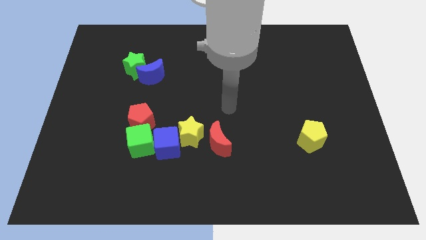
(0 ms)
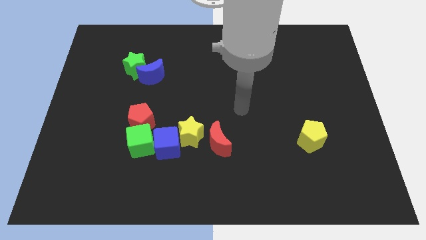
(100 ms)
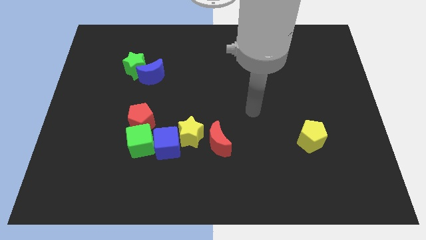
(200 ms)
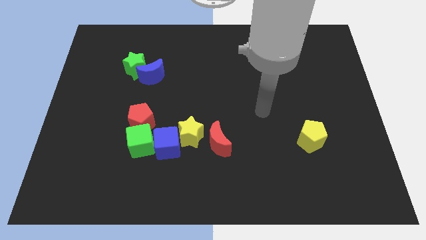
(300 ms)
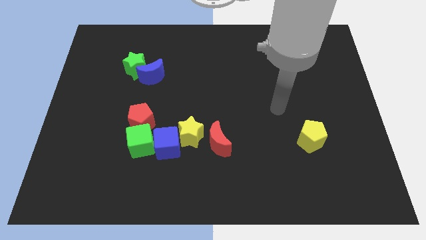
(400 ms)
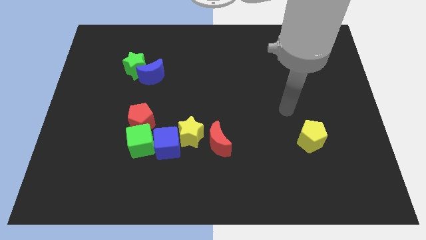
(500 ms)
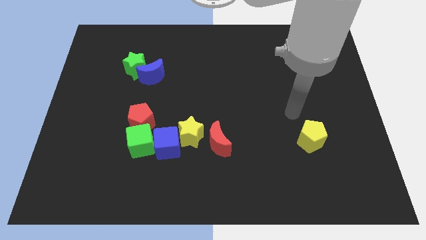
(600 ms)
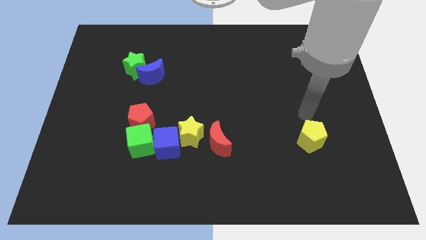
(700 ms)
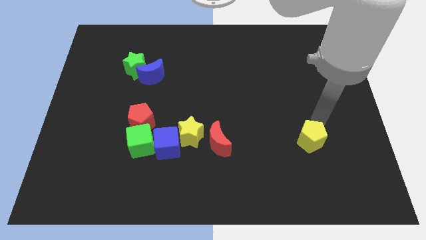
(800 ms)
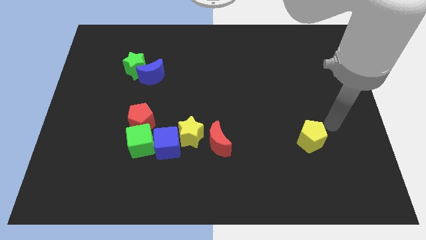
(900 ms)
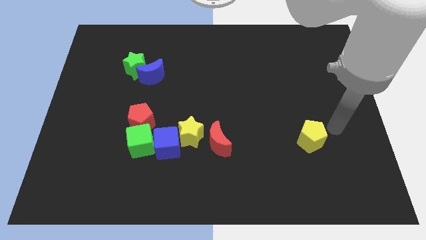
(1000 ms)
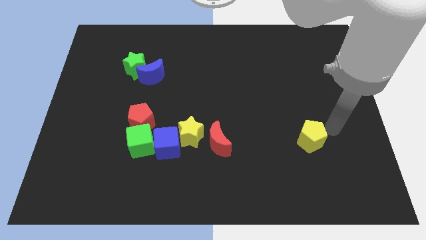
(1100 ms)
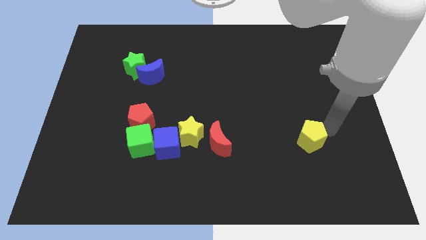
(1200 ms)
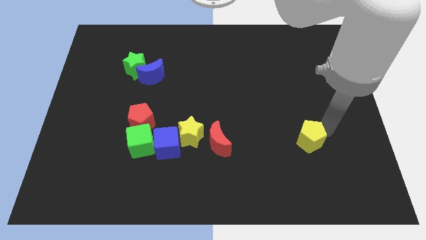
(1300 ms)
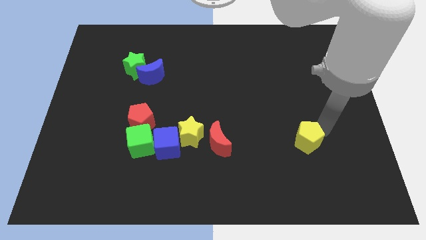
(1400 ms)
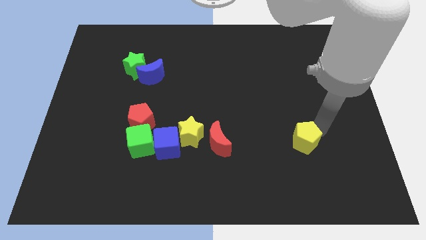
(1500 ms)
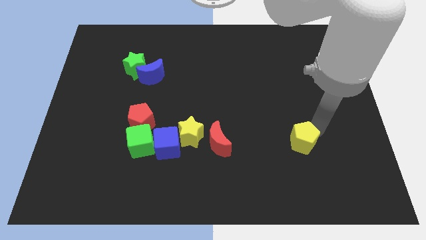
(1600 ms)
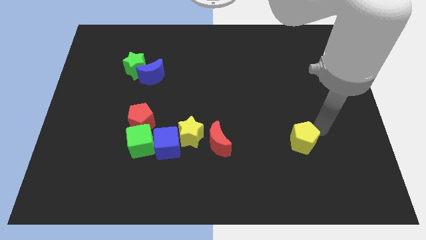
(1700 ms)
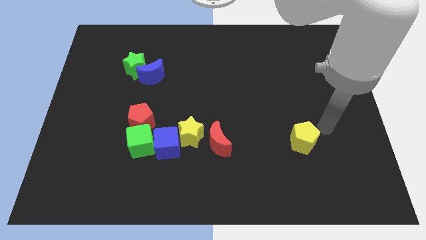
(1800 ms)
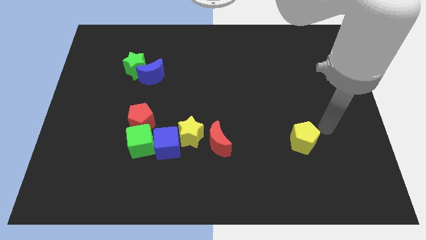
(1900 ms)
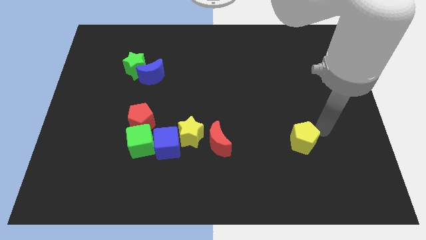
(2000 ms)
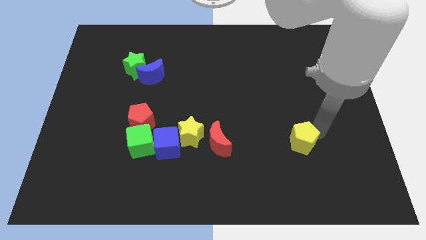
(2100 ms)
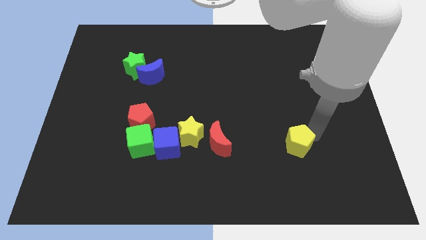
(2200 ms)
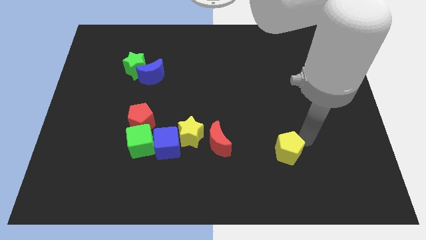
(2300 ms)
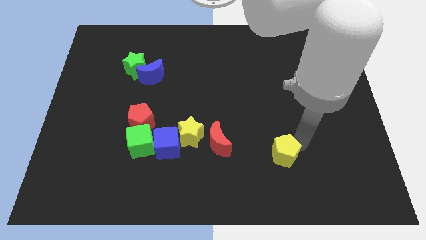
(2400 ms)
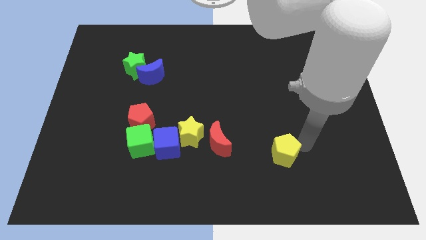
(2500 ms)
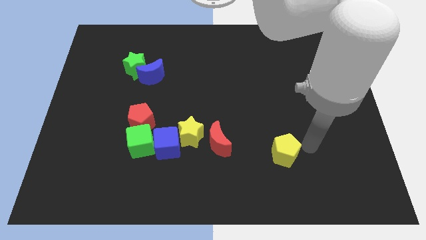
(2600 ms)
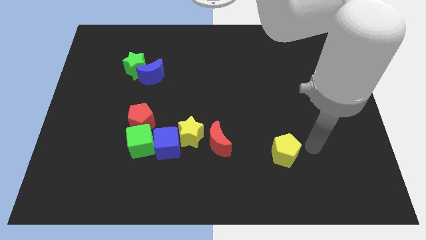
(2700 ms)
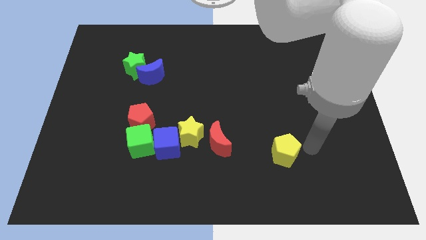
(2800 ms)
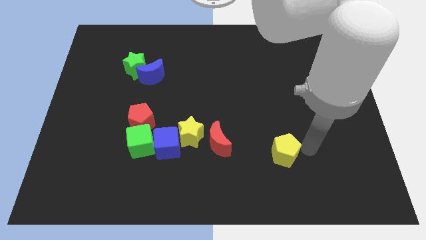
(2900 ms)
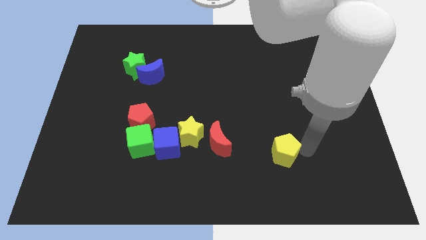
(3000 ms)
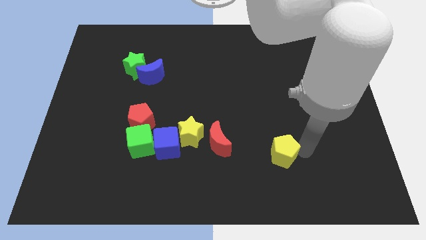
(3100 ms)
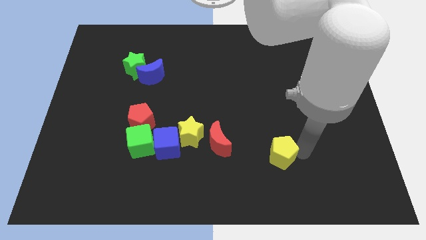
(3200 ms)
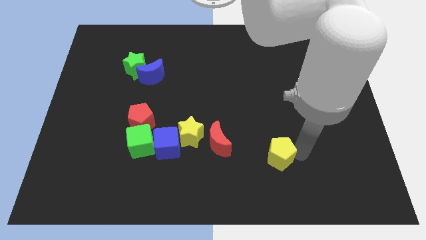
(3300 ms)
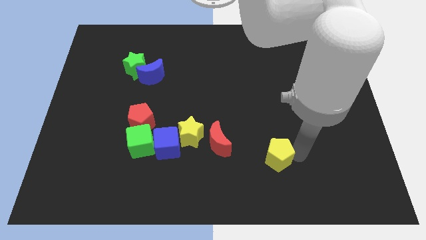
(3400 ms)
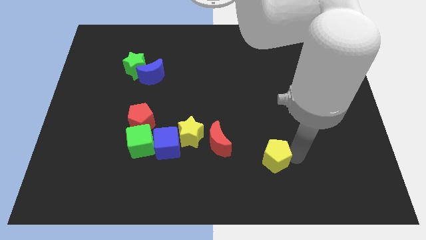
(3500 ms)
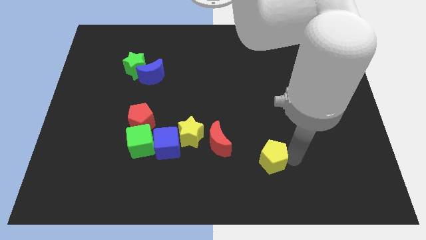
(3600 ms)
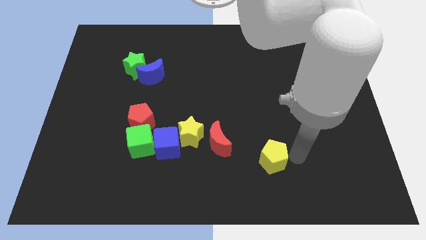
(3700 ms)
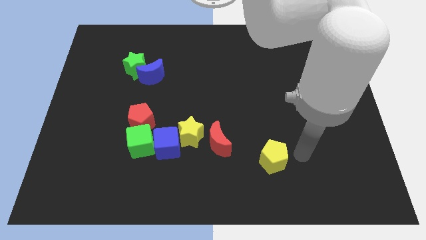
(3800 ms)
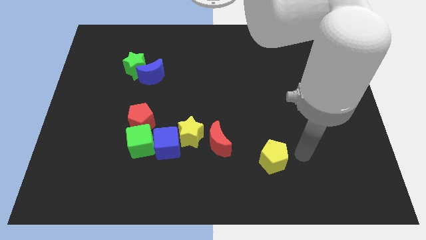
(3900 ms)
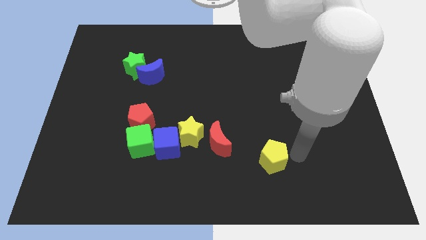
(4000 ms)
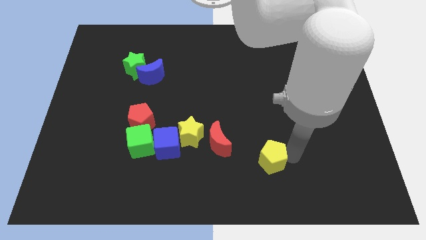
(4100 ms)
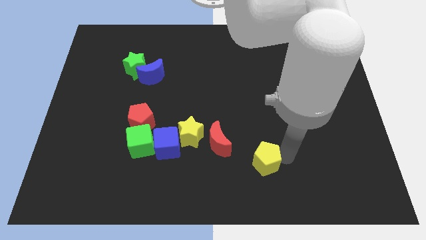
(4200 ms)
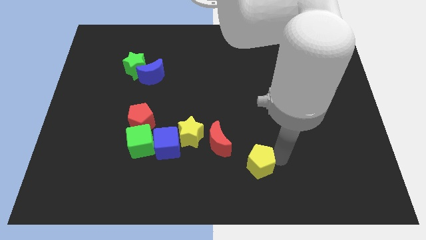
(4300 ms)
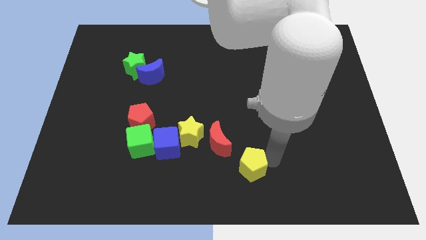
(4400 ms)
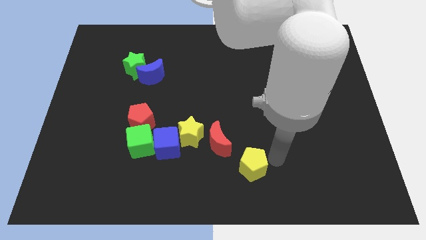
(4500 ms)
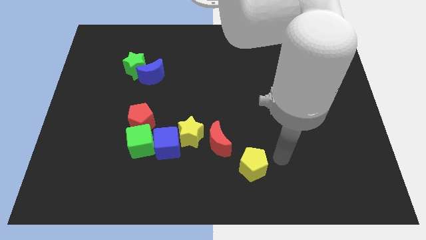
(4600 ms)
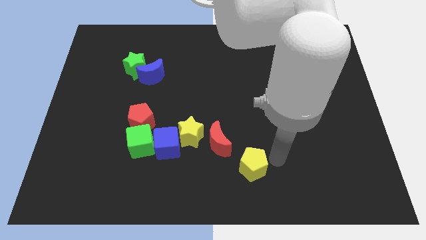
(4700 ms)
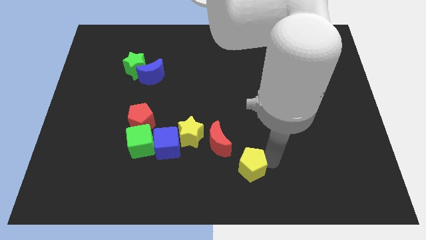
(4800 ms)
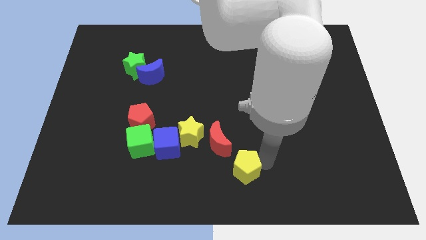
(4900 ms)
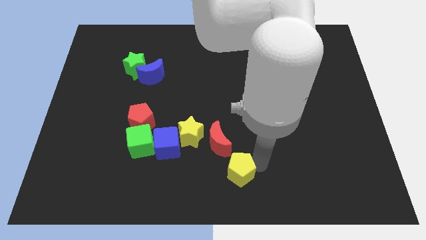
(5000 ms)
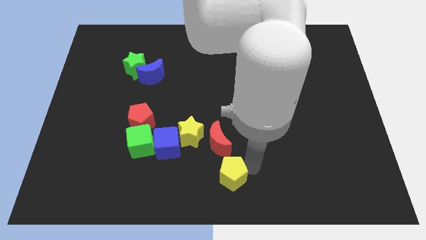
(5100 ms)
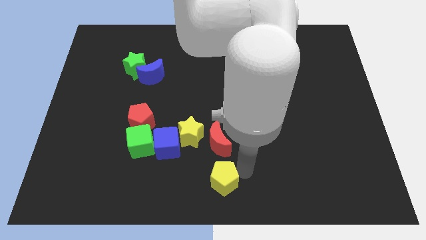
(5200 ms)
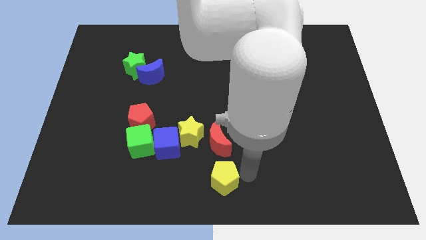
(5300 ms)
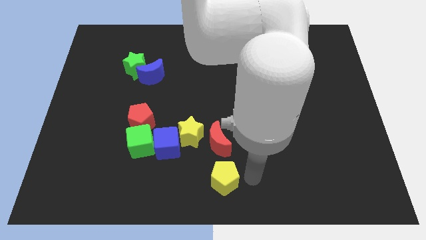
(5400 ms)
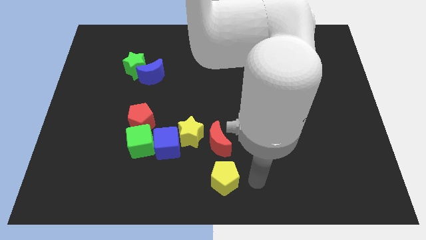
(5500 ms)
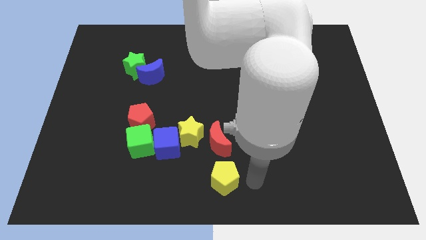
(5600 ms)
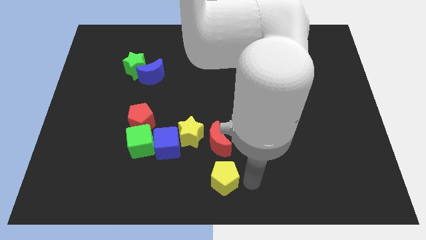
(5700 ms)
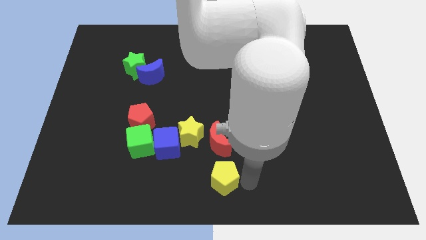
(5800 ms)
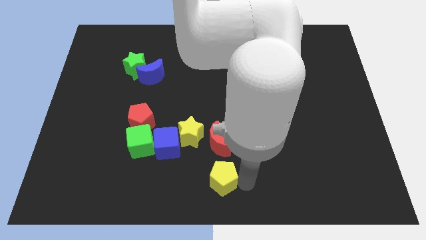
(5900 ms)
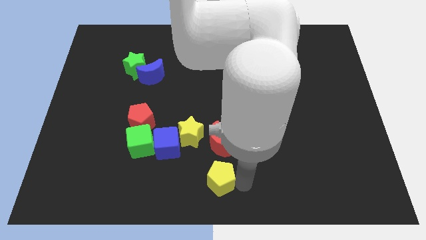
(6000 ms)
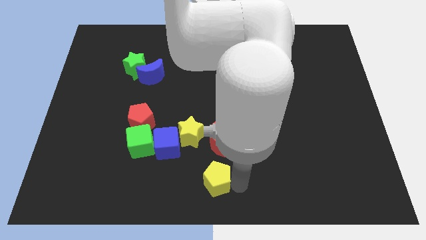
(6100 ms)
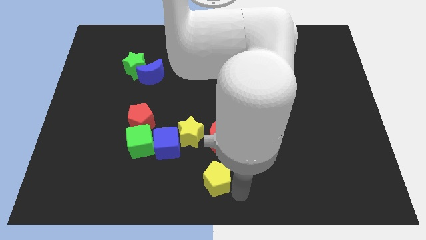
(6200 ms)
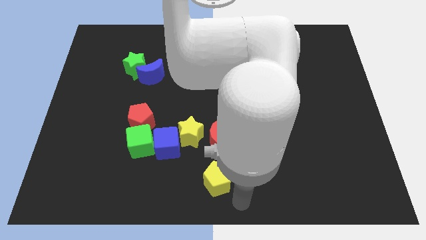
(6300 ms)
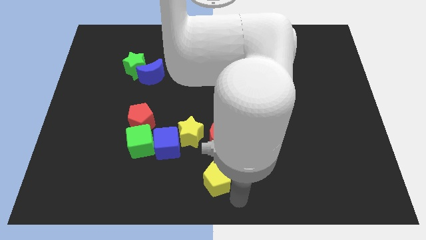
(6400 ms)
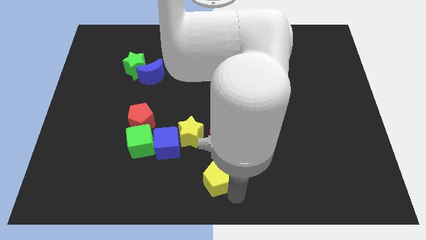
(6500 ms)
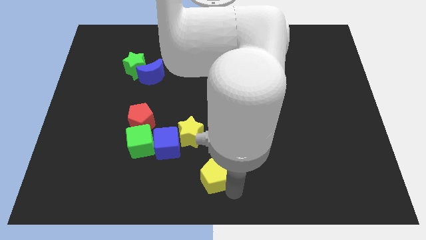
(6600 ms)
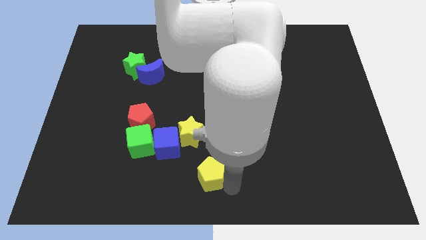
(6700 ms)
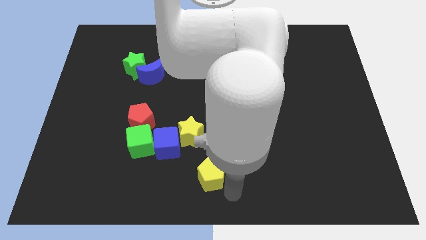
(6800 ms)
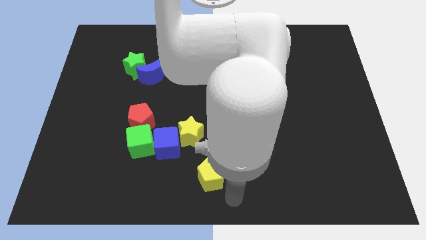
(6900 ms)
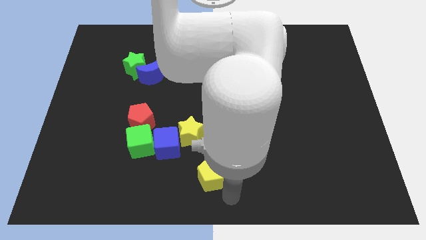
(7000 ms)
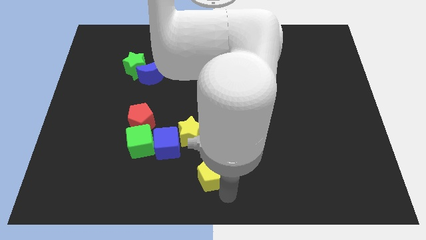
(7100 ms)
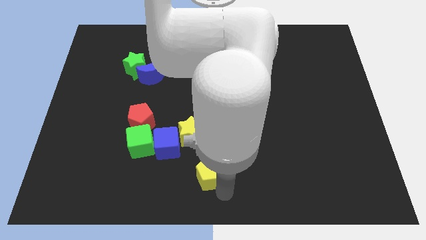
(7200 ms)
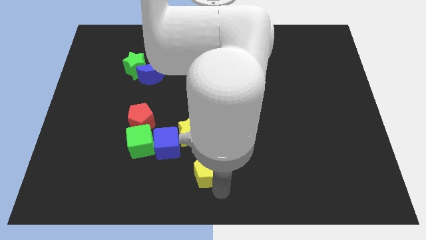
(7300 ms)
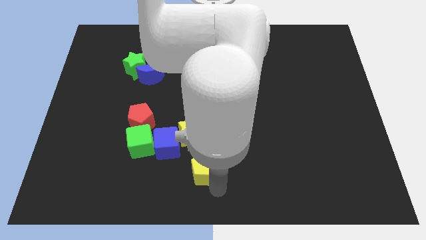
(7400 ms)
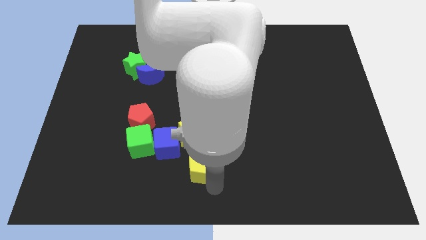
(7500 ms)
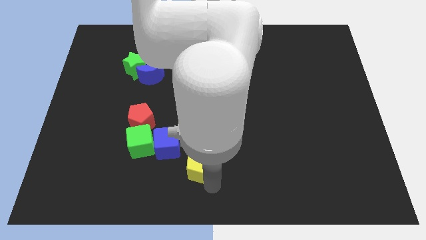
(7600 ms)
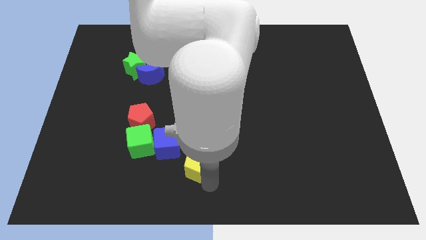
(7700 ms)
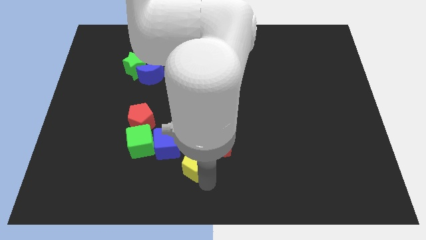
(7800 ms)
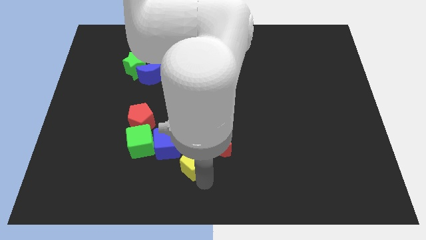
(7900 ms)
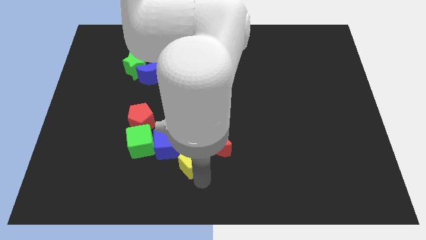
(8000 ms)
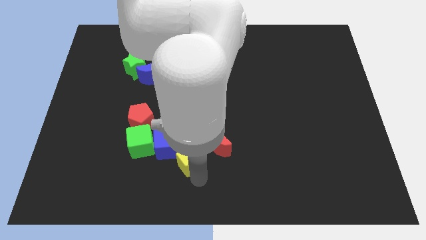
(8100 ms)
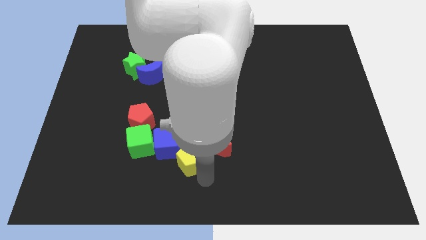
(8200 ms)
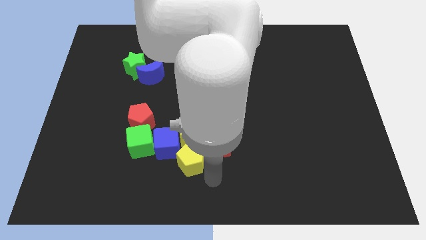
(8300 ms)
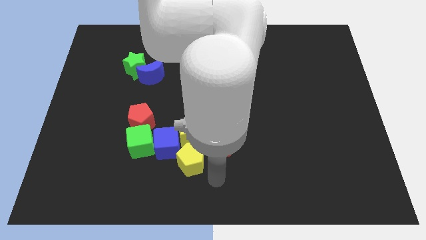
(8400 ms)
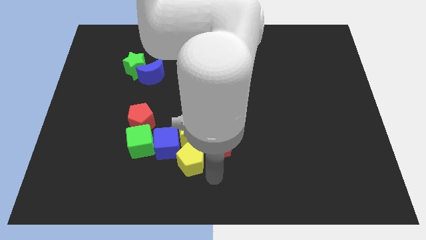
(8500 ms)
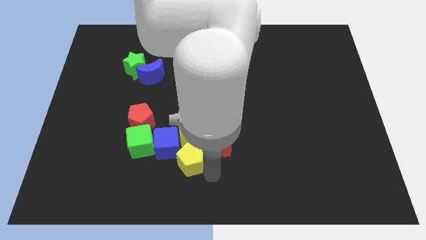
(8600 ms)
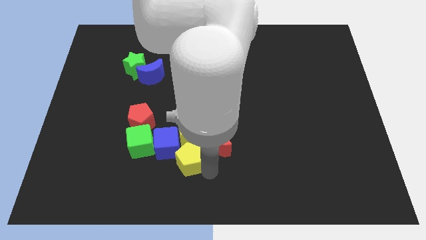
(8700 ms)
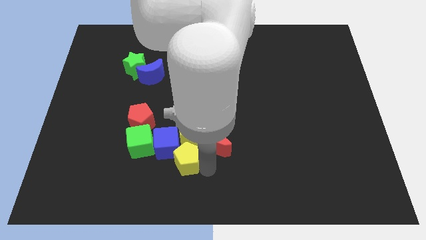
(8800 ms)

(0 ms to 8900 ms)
move the yellow pentagon to the blue cube
